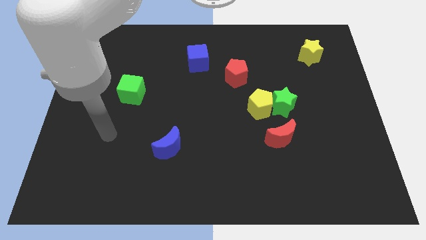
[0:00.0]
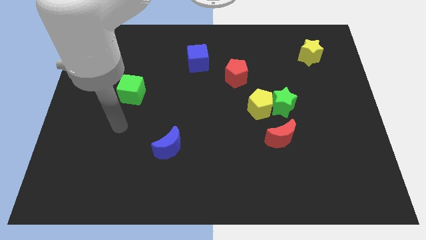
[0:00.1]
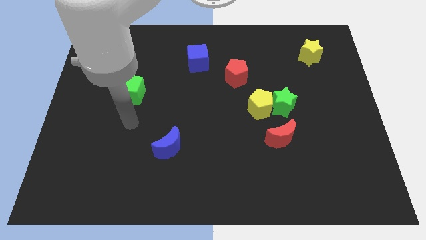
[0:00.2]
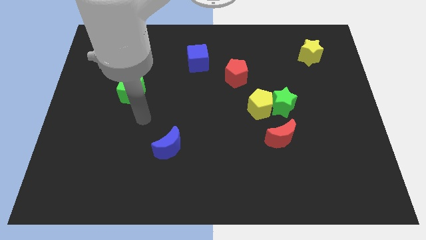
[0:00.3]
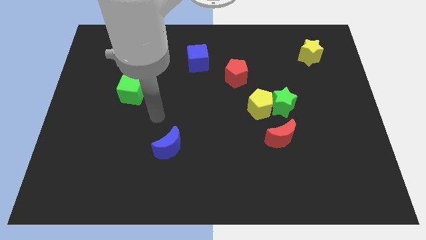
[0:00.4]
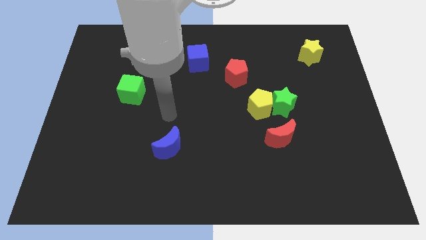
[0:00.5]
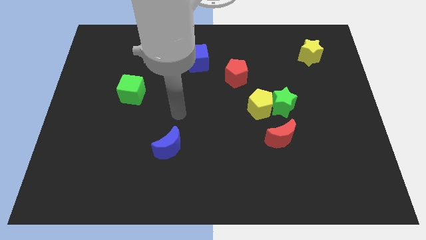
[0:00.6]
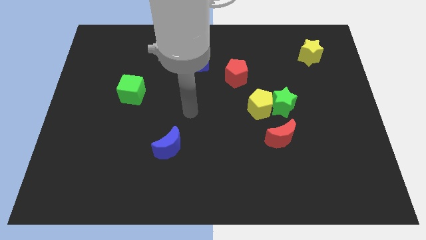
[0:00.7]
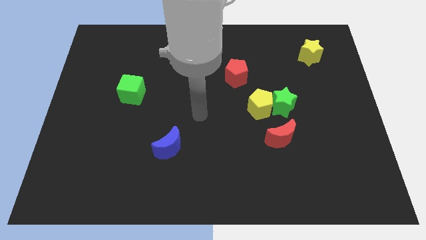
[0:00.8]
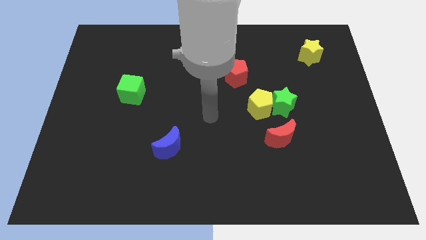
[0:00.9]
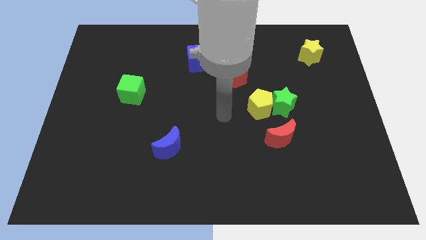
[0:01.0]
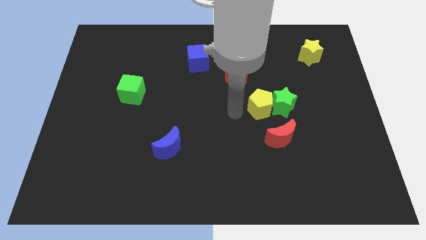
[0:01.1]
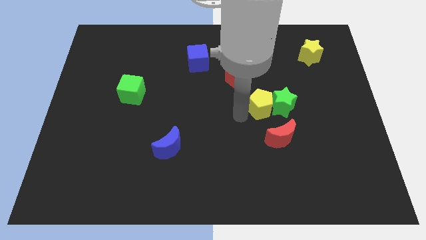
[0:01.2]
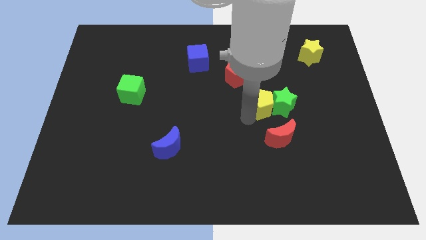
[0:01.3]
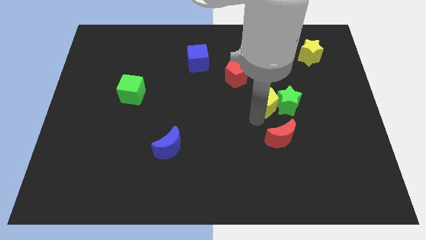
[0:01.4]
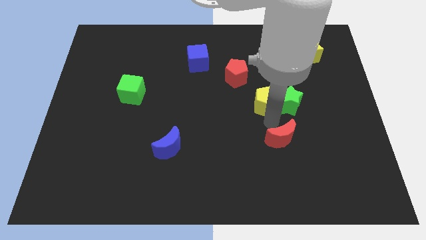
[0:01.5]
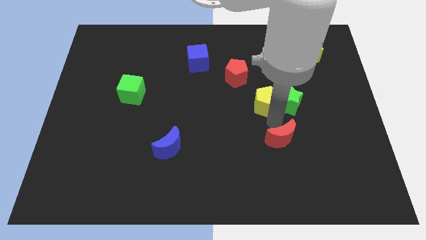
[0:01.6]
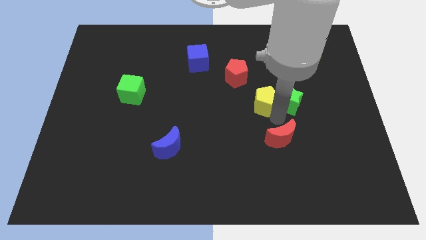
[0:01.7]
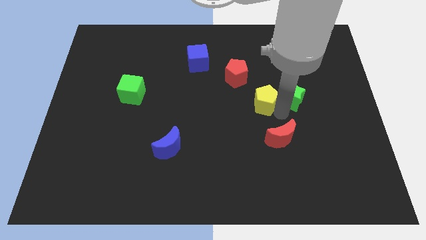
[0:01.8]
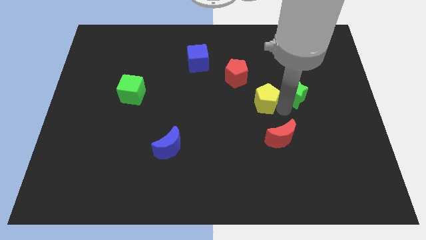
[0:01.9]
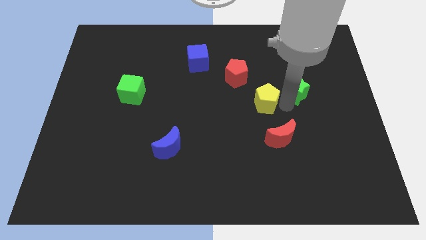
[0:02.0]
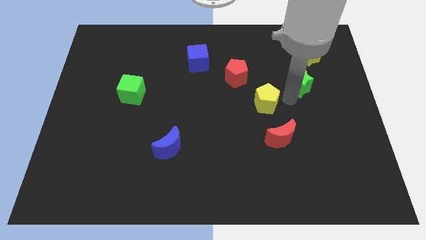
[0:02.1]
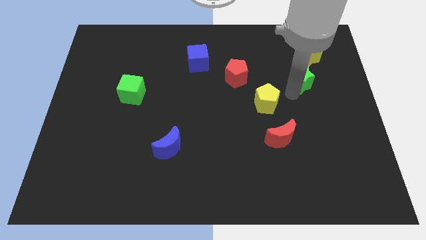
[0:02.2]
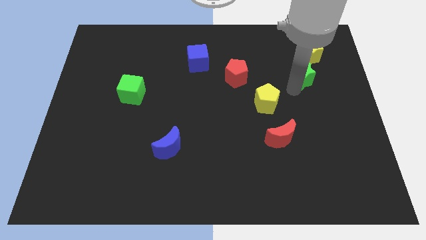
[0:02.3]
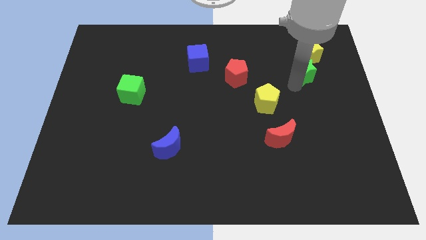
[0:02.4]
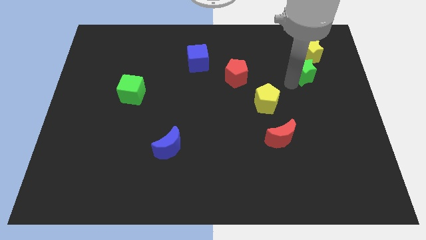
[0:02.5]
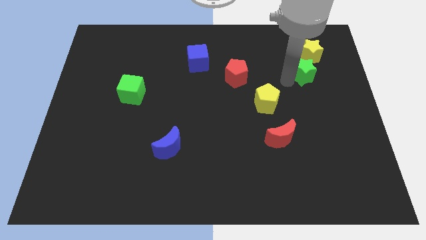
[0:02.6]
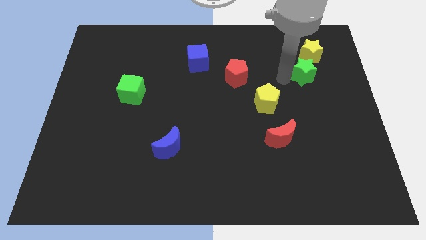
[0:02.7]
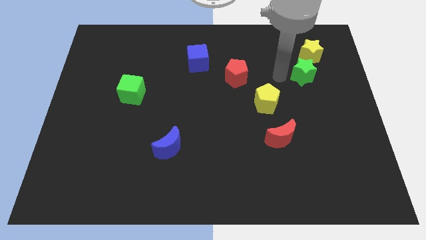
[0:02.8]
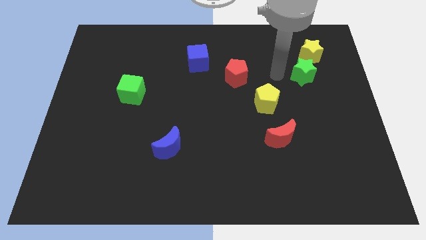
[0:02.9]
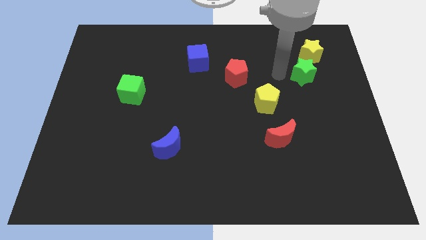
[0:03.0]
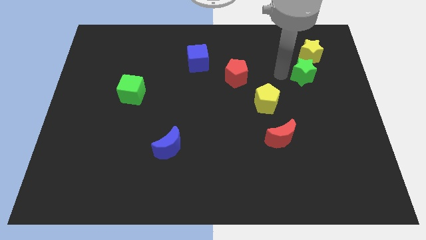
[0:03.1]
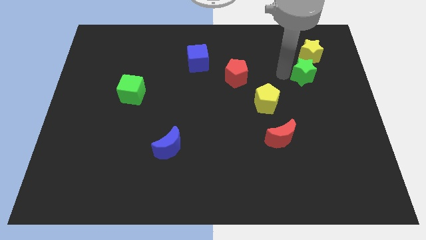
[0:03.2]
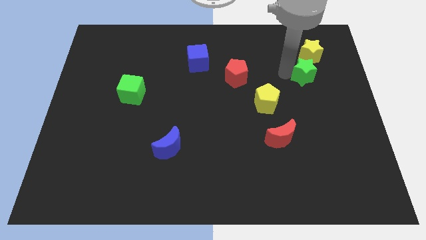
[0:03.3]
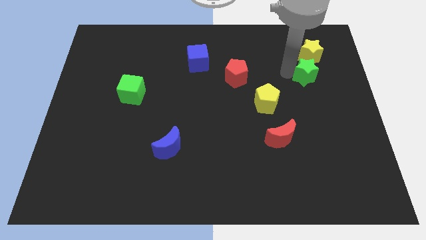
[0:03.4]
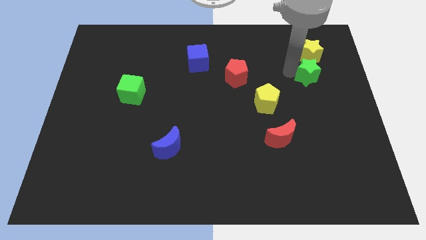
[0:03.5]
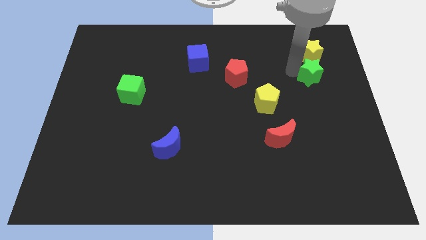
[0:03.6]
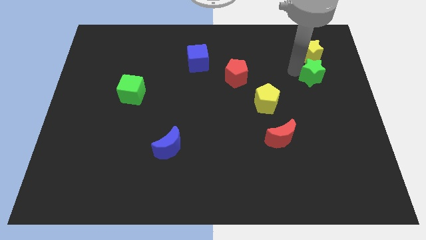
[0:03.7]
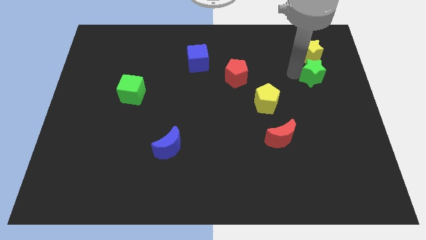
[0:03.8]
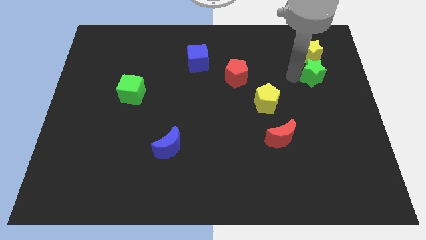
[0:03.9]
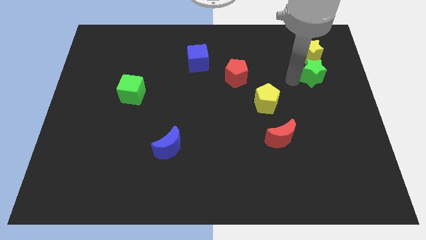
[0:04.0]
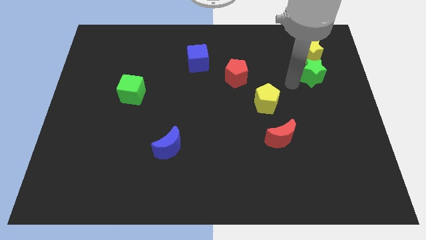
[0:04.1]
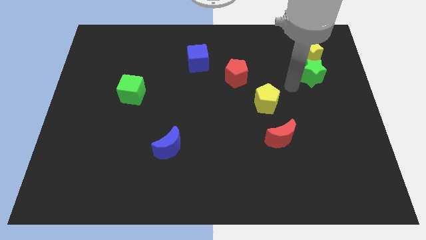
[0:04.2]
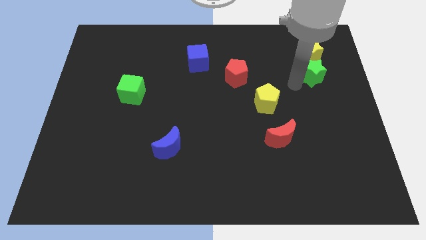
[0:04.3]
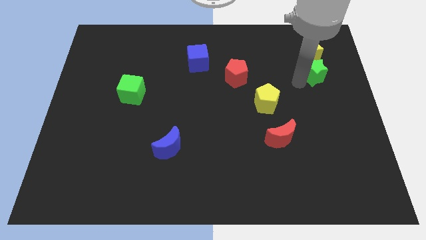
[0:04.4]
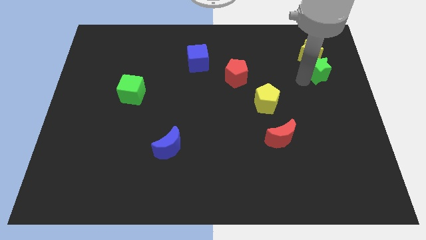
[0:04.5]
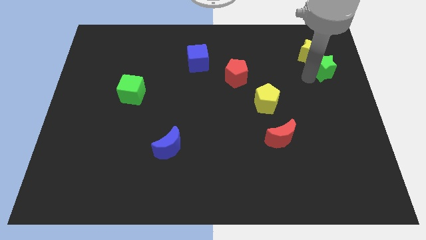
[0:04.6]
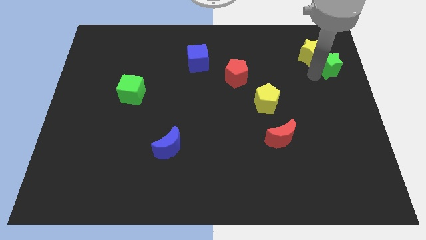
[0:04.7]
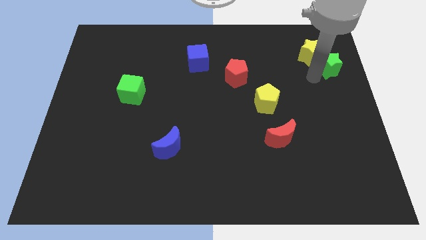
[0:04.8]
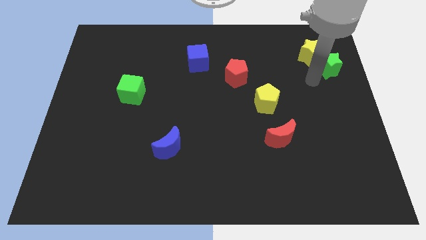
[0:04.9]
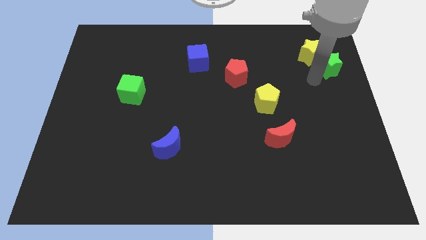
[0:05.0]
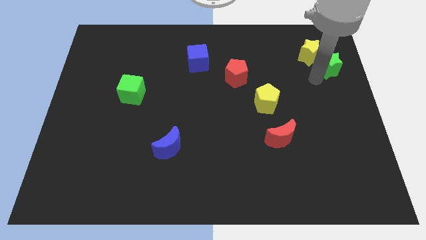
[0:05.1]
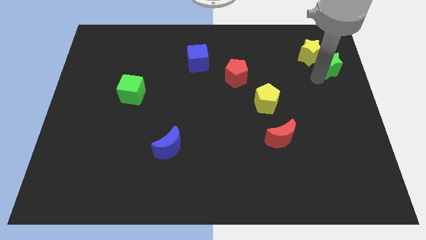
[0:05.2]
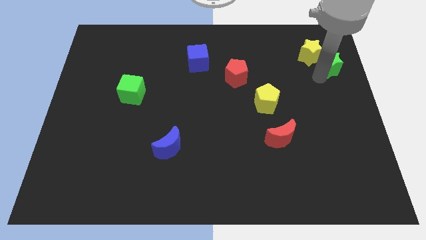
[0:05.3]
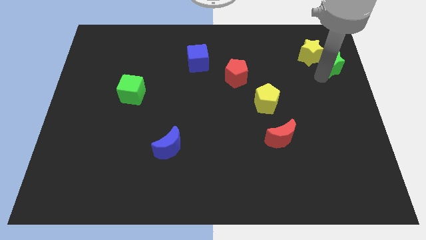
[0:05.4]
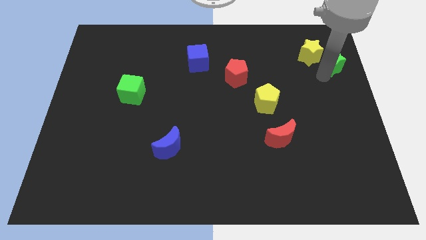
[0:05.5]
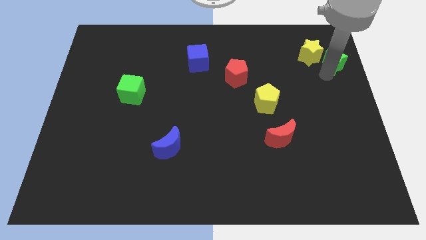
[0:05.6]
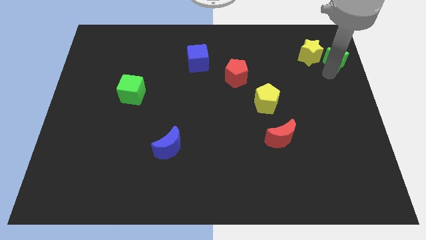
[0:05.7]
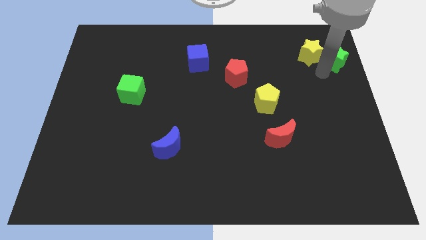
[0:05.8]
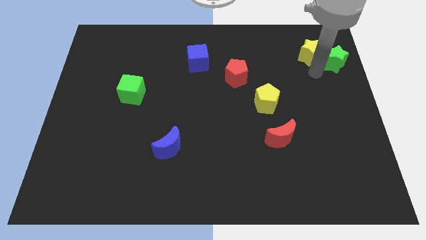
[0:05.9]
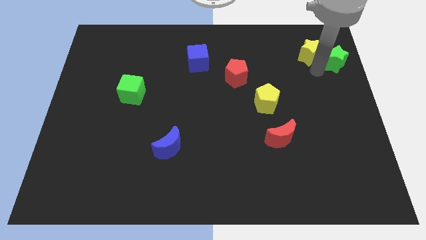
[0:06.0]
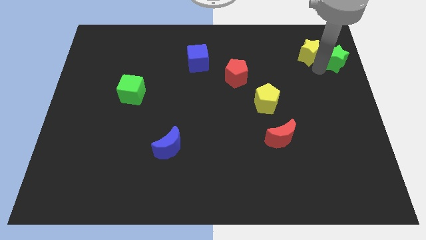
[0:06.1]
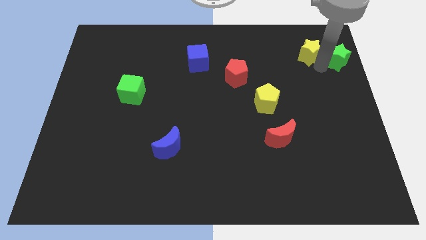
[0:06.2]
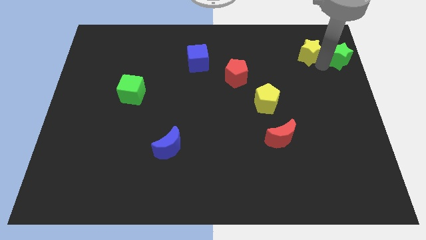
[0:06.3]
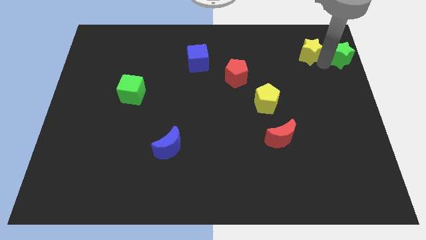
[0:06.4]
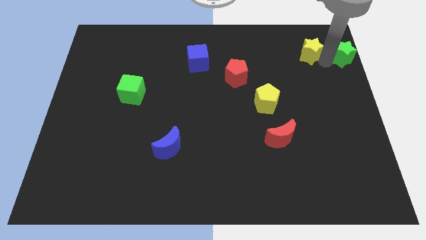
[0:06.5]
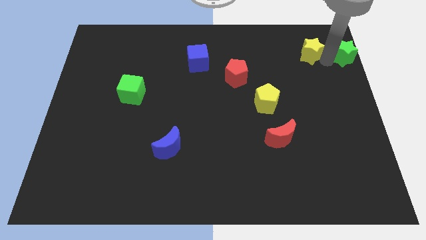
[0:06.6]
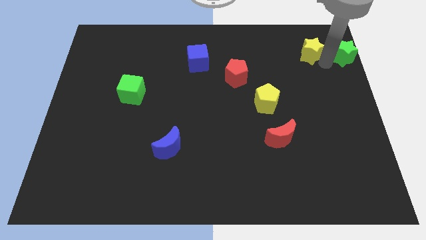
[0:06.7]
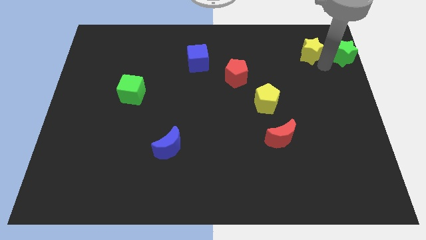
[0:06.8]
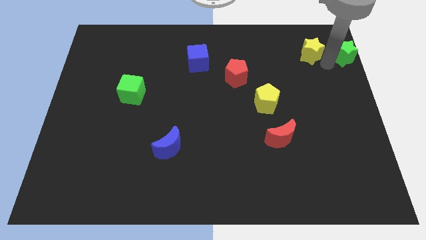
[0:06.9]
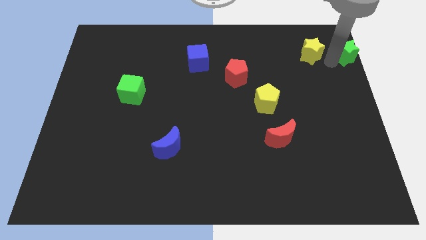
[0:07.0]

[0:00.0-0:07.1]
slide the green star to the top right

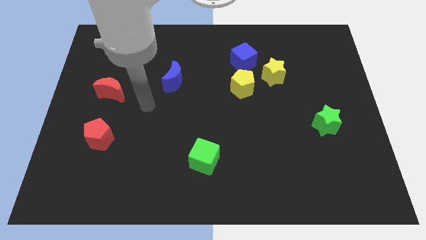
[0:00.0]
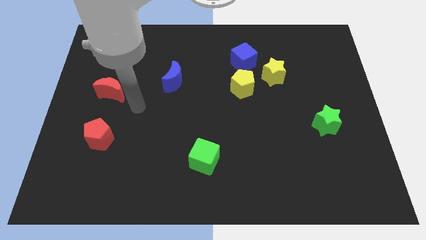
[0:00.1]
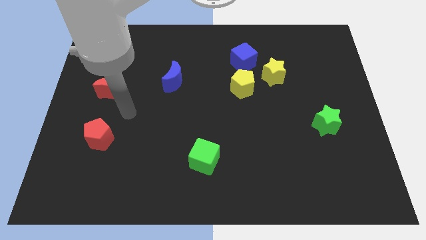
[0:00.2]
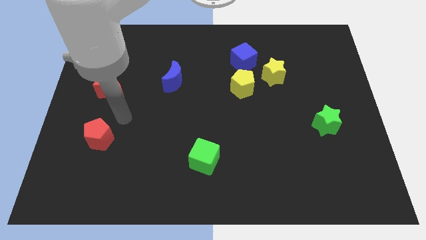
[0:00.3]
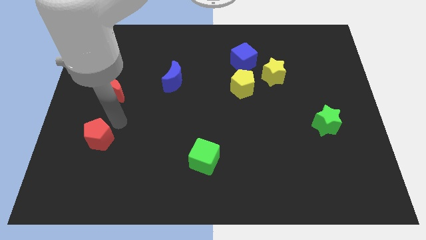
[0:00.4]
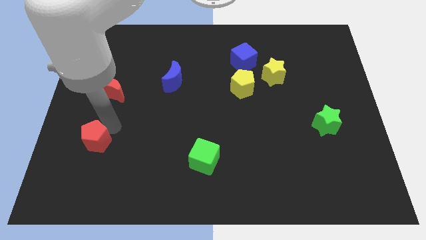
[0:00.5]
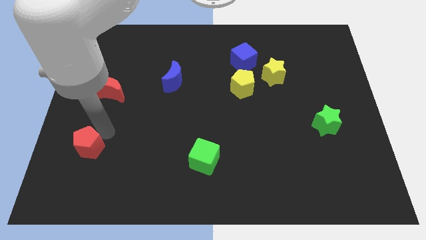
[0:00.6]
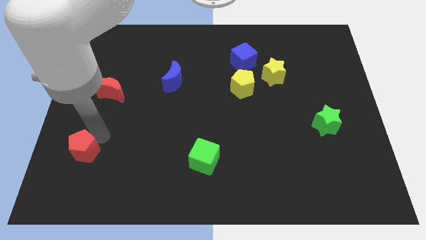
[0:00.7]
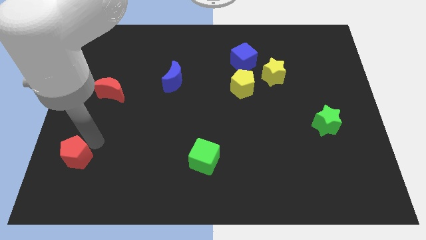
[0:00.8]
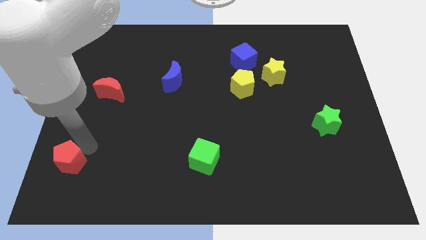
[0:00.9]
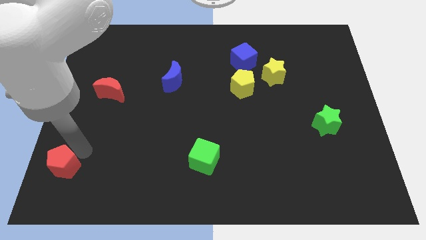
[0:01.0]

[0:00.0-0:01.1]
move the red pentagon to the lower left corner
